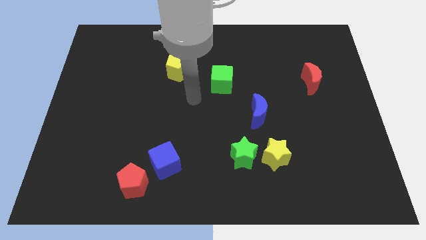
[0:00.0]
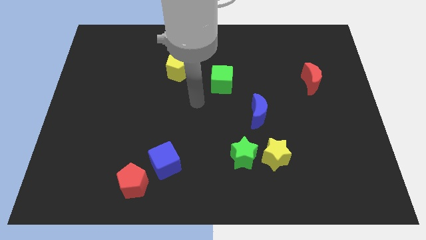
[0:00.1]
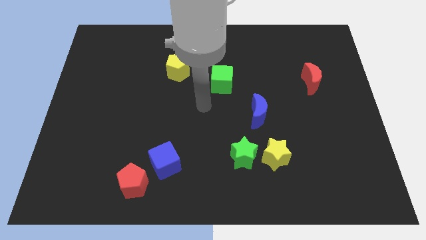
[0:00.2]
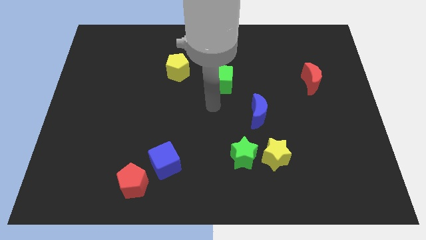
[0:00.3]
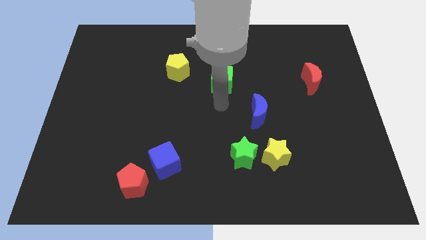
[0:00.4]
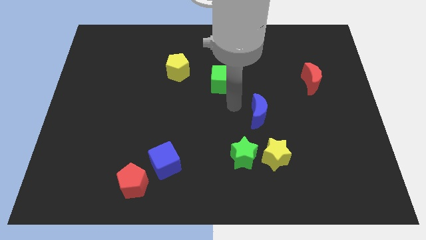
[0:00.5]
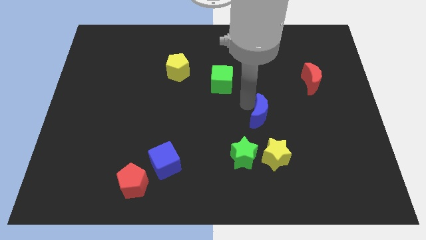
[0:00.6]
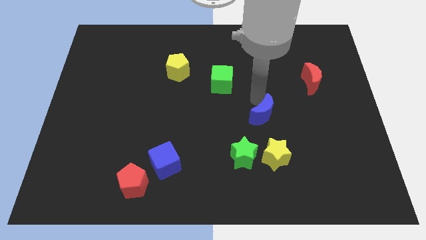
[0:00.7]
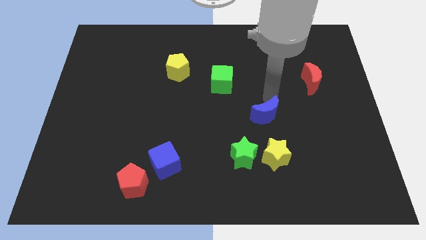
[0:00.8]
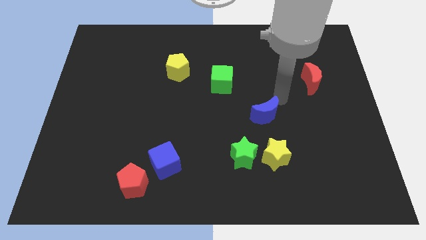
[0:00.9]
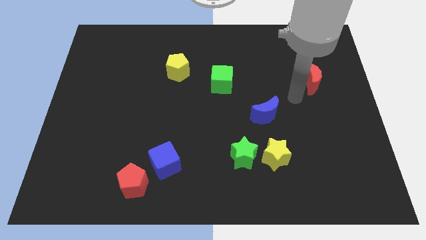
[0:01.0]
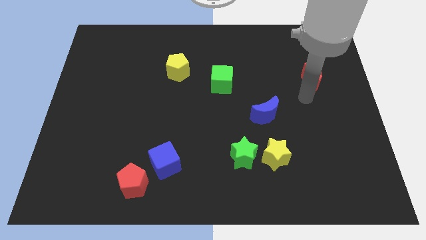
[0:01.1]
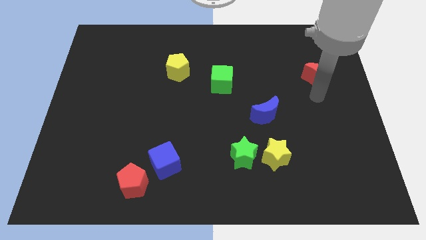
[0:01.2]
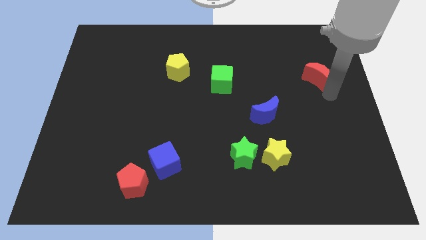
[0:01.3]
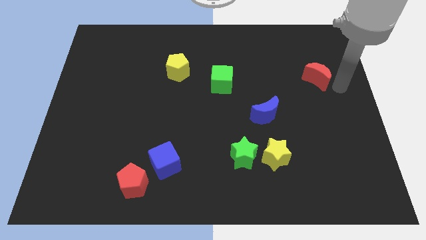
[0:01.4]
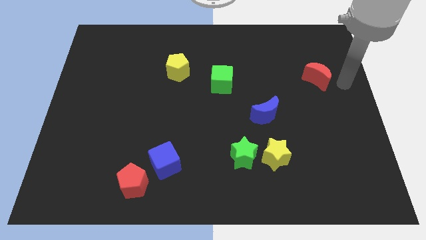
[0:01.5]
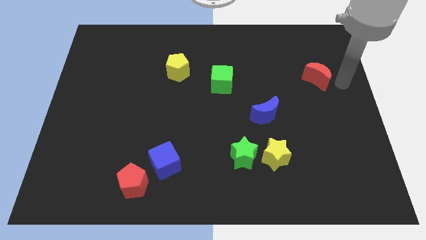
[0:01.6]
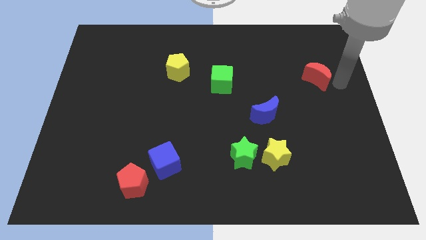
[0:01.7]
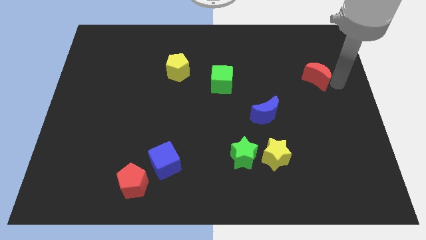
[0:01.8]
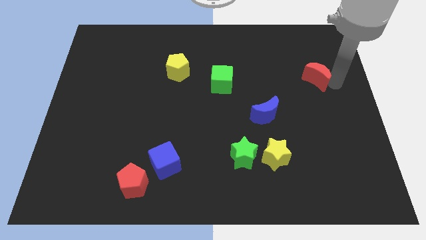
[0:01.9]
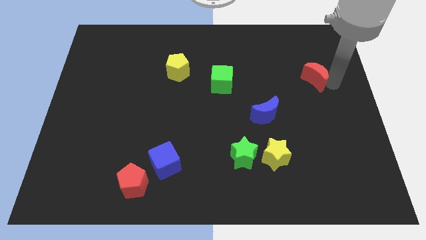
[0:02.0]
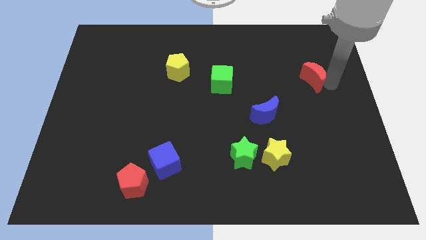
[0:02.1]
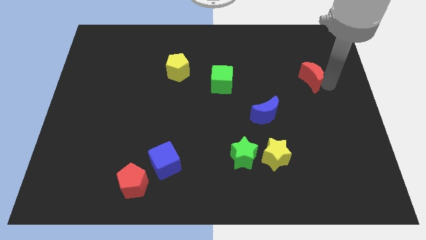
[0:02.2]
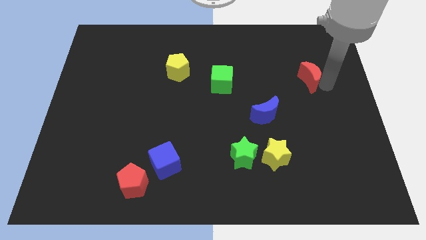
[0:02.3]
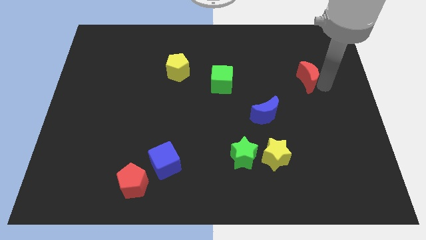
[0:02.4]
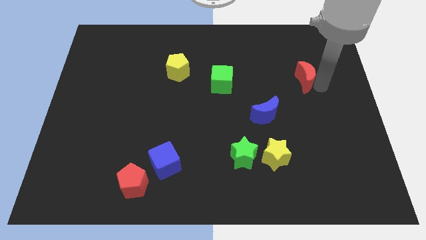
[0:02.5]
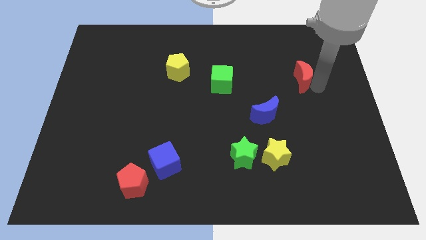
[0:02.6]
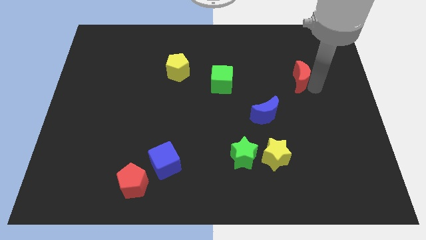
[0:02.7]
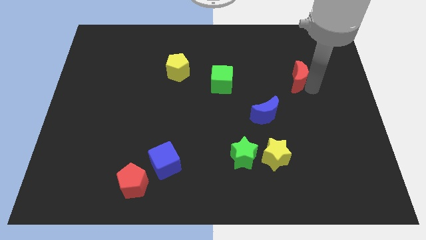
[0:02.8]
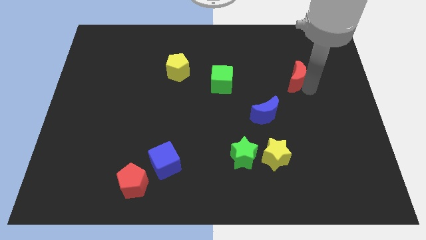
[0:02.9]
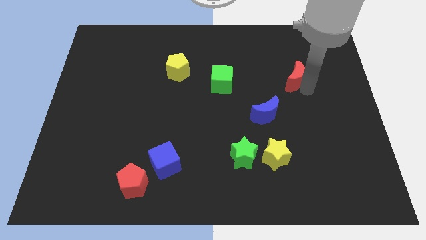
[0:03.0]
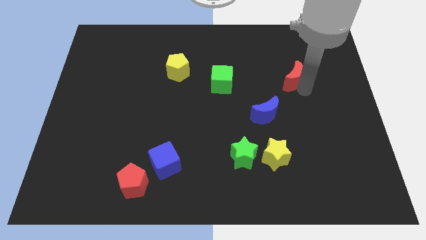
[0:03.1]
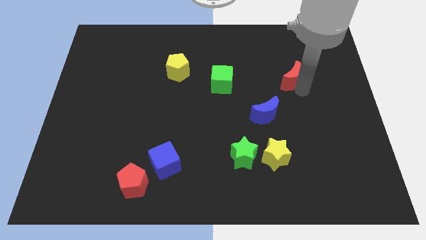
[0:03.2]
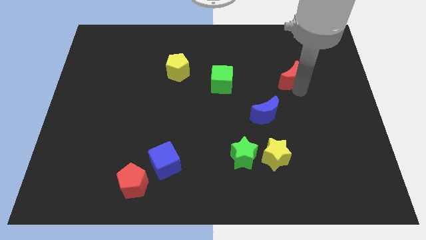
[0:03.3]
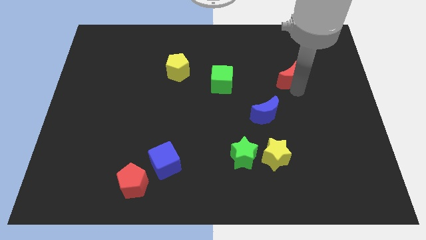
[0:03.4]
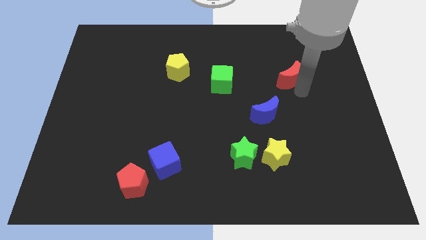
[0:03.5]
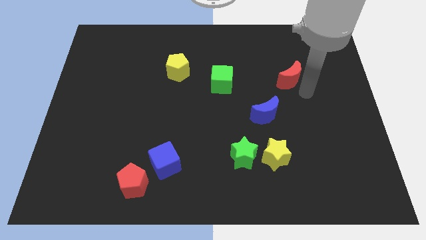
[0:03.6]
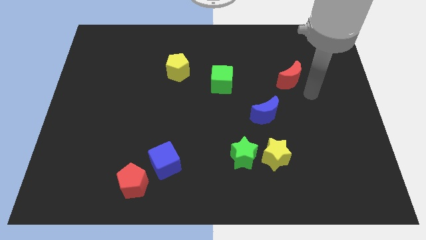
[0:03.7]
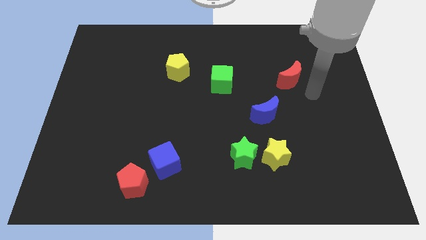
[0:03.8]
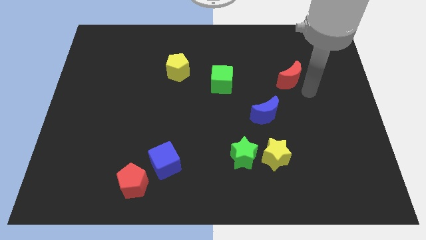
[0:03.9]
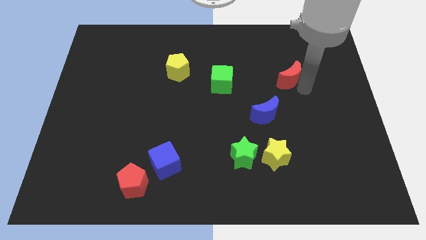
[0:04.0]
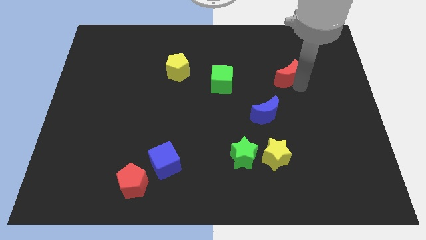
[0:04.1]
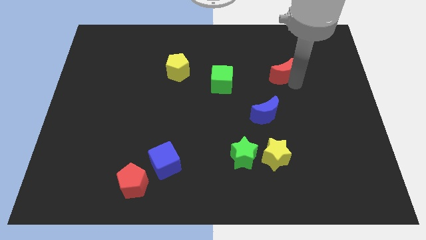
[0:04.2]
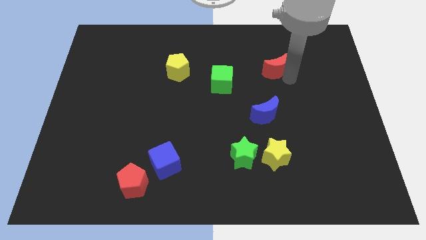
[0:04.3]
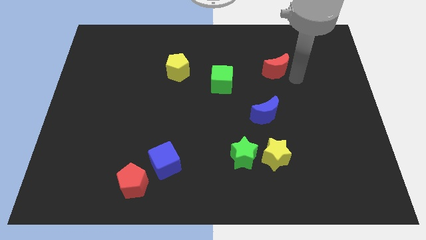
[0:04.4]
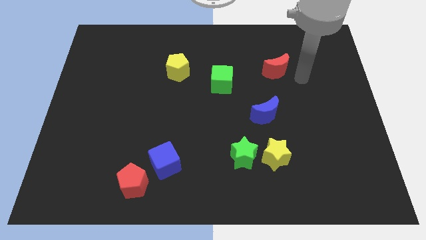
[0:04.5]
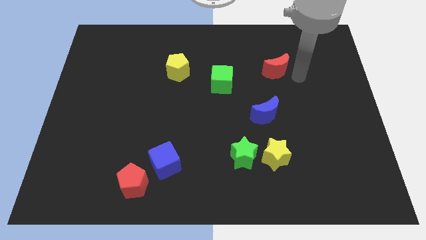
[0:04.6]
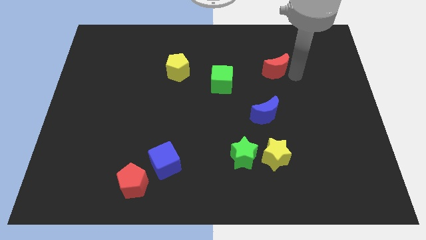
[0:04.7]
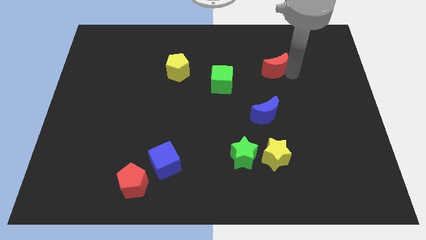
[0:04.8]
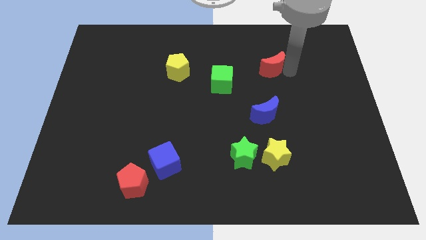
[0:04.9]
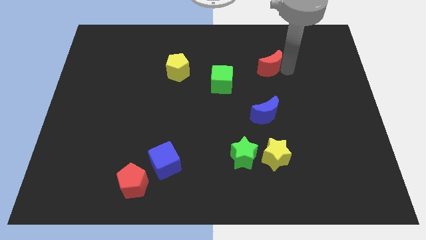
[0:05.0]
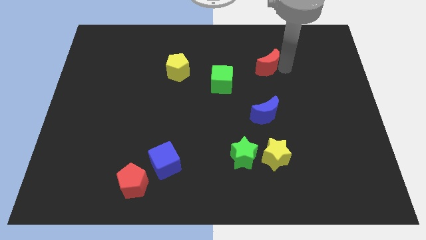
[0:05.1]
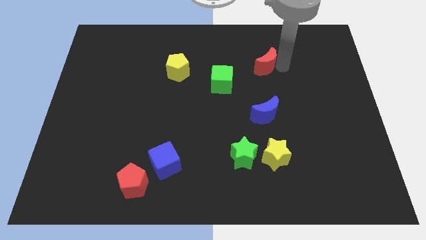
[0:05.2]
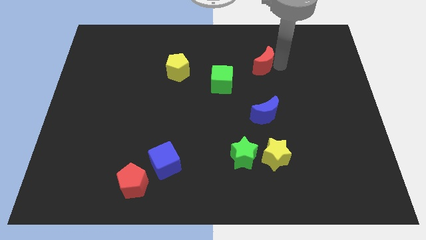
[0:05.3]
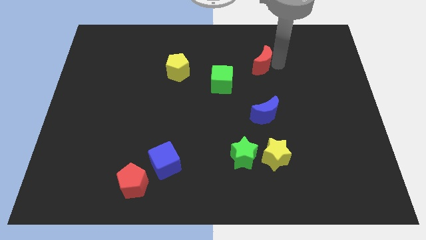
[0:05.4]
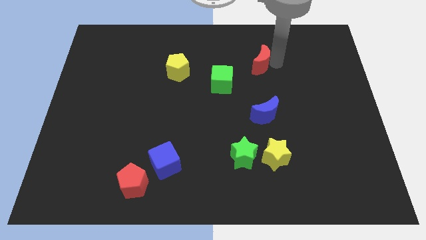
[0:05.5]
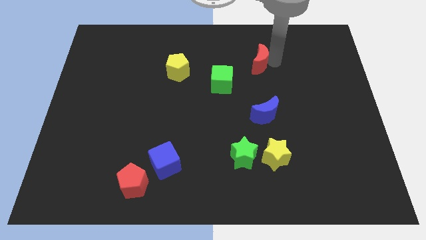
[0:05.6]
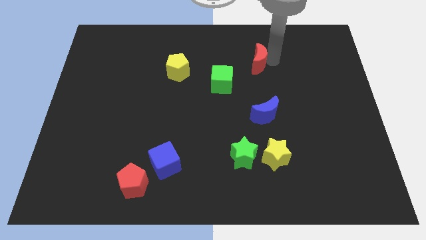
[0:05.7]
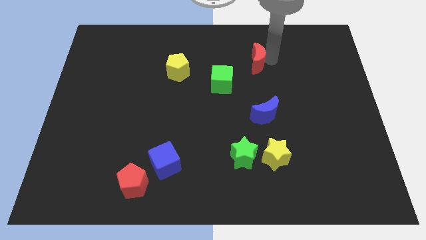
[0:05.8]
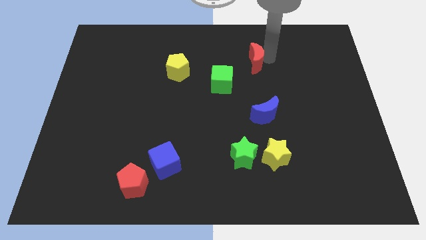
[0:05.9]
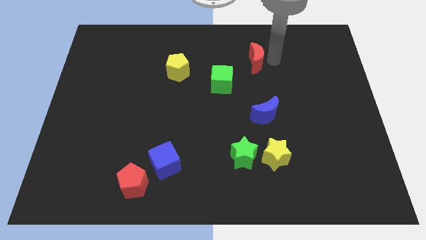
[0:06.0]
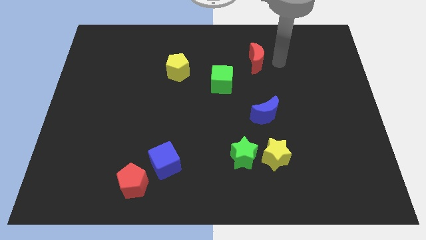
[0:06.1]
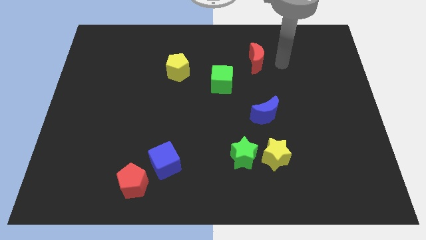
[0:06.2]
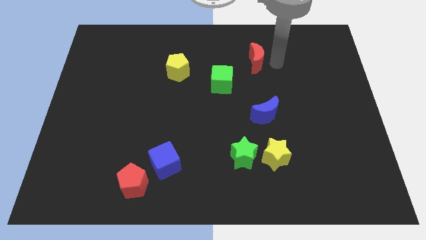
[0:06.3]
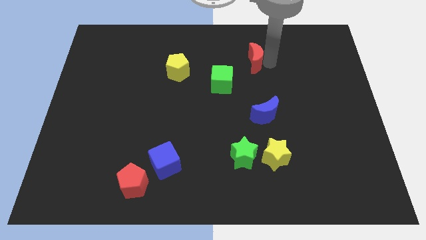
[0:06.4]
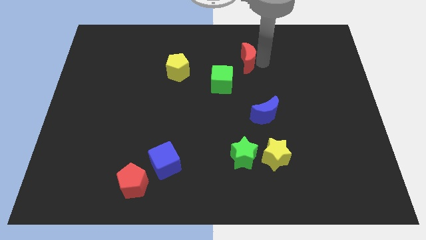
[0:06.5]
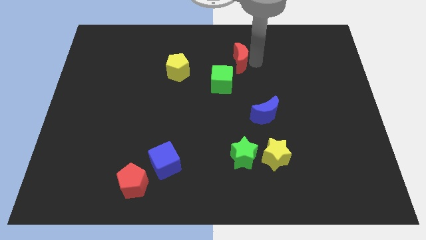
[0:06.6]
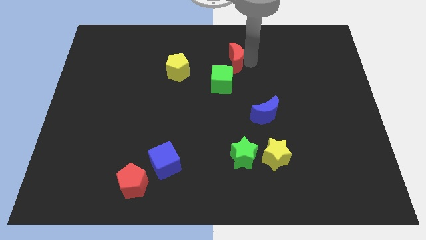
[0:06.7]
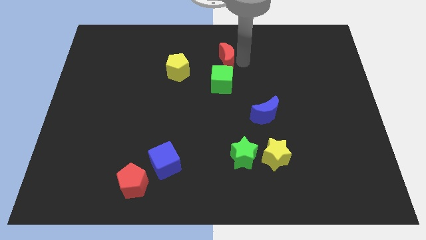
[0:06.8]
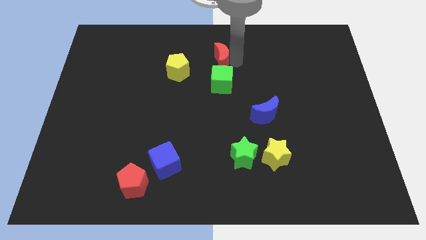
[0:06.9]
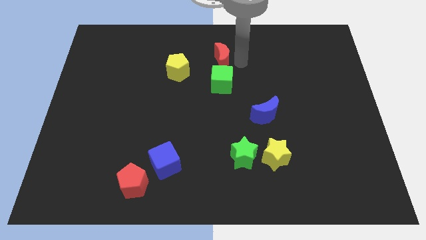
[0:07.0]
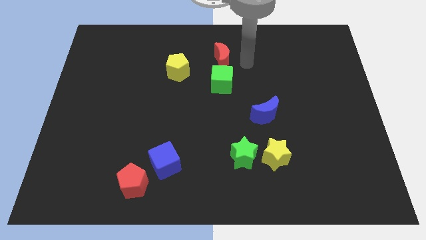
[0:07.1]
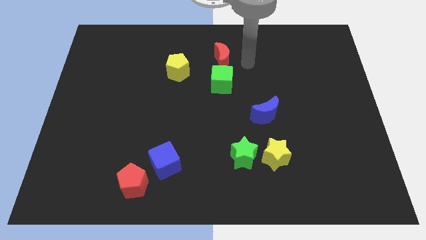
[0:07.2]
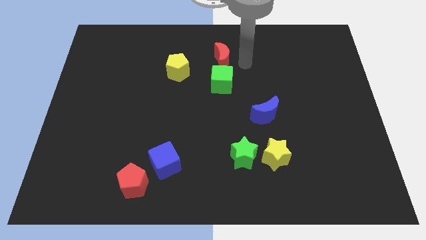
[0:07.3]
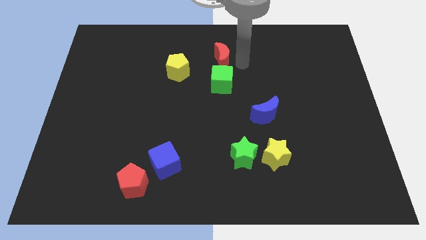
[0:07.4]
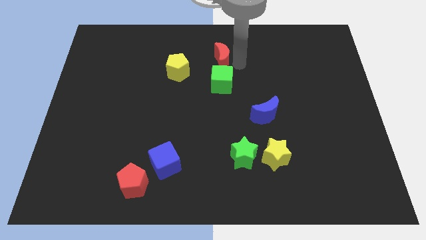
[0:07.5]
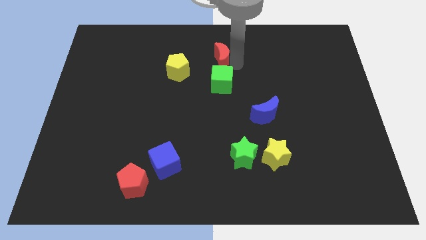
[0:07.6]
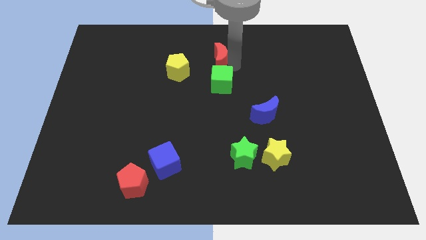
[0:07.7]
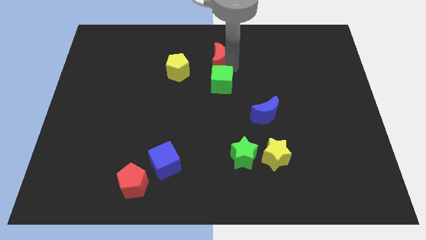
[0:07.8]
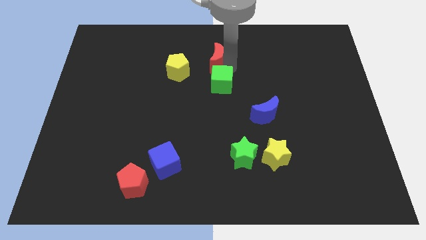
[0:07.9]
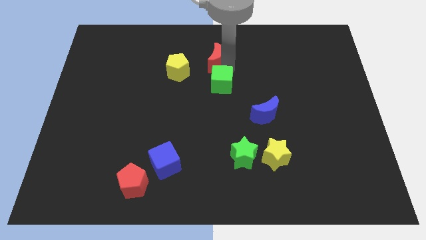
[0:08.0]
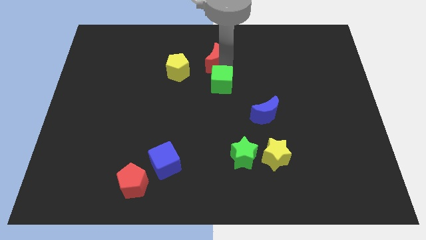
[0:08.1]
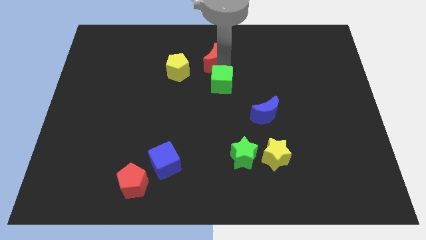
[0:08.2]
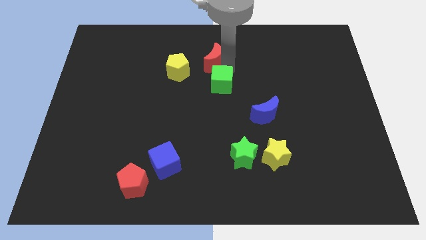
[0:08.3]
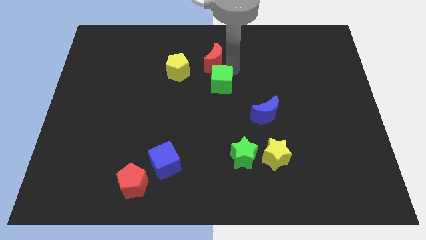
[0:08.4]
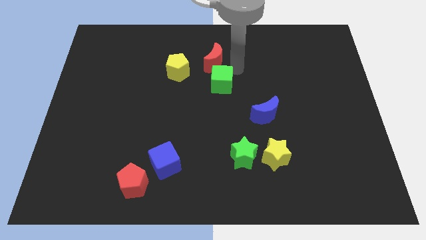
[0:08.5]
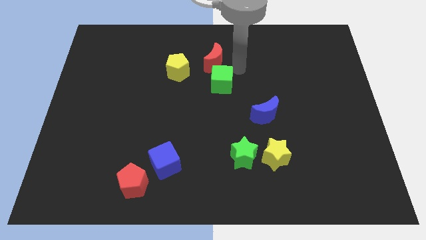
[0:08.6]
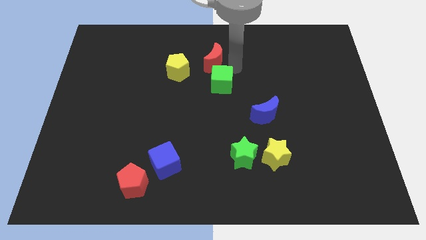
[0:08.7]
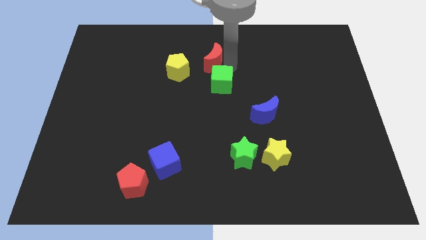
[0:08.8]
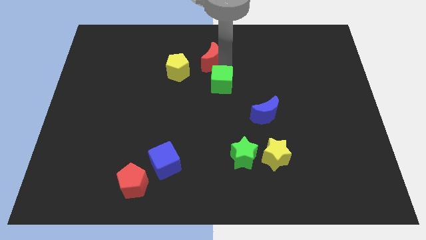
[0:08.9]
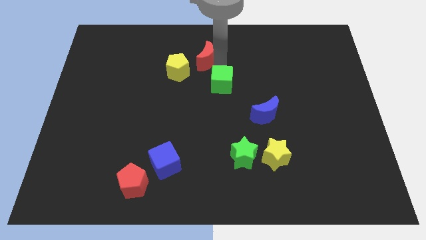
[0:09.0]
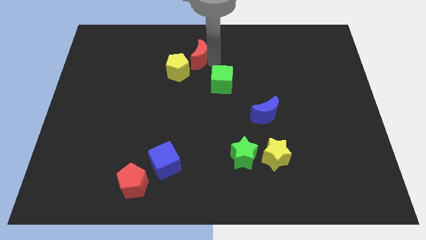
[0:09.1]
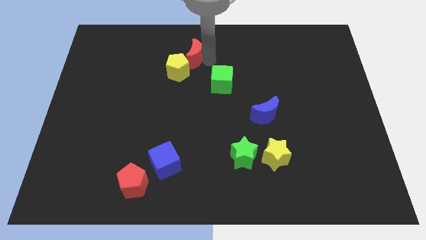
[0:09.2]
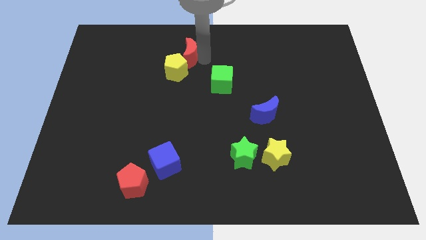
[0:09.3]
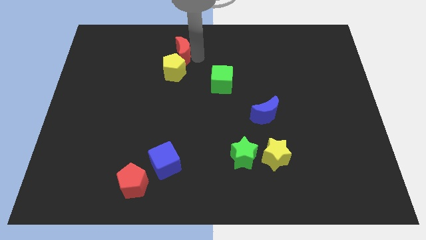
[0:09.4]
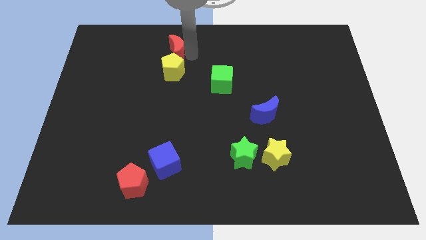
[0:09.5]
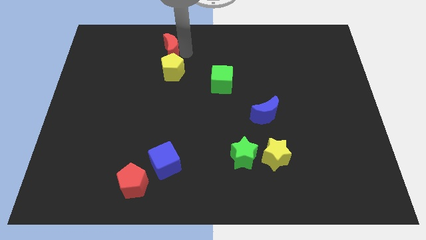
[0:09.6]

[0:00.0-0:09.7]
put the red moon diagonally up and to the left of the yellow pentagon
